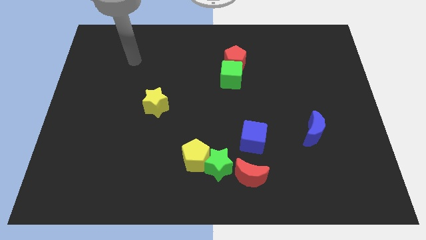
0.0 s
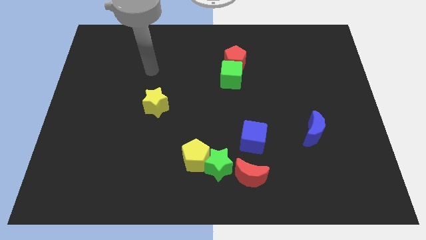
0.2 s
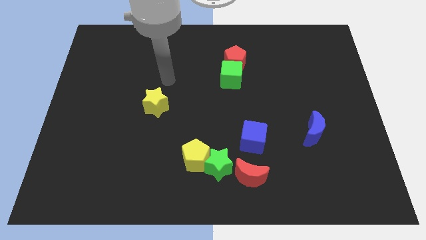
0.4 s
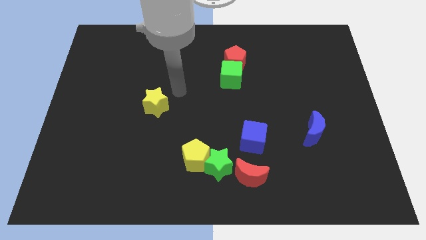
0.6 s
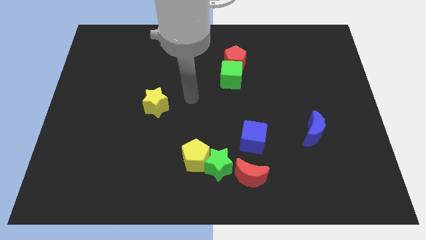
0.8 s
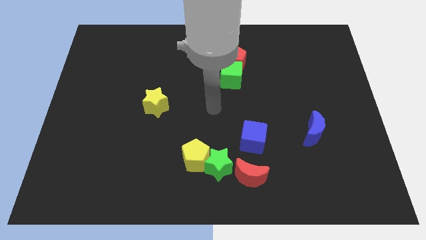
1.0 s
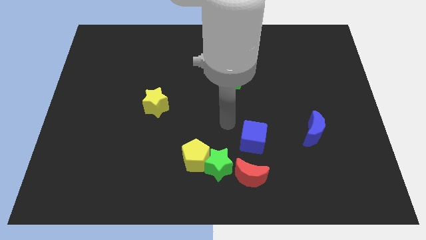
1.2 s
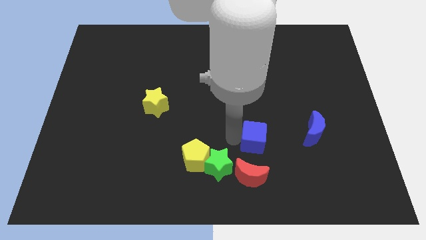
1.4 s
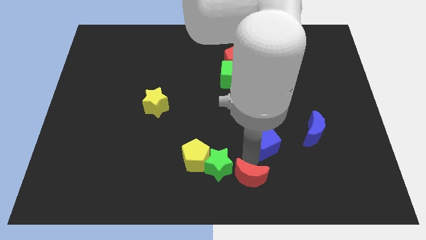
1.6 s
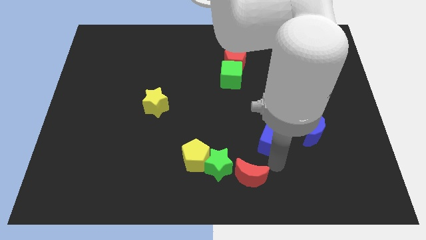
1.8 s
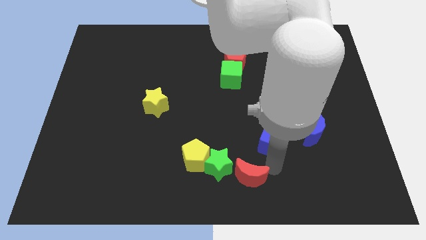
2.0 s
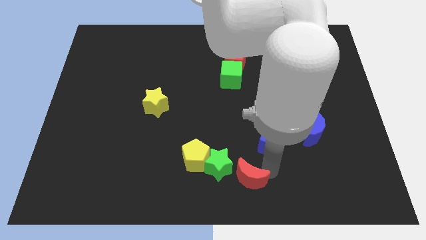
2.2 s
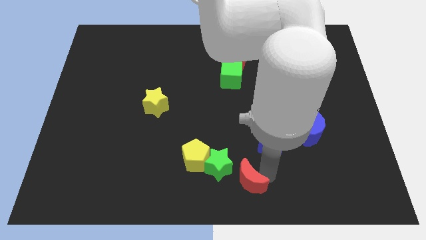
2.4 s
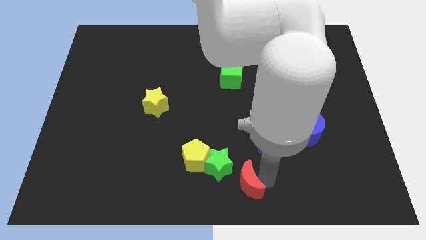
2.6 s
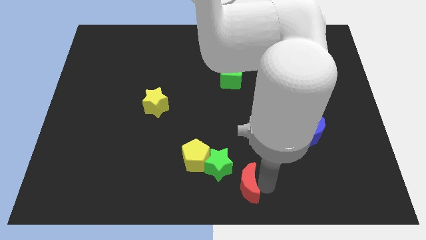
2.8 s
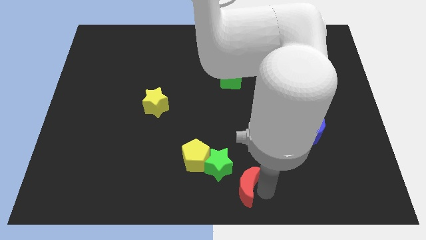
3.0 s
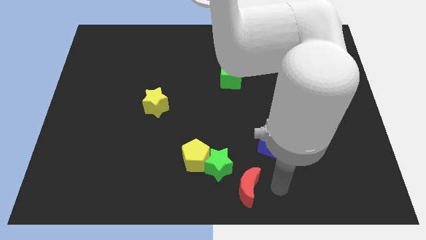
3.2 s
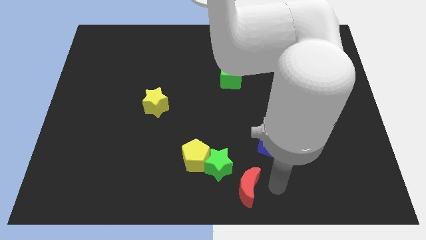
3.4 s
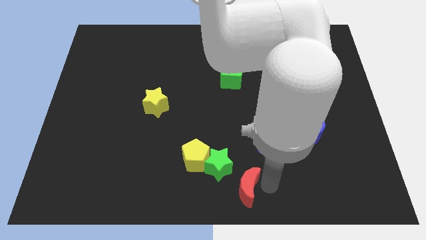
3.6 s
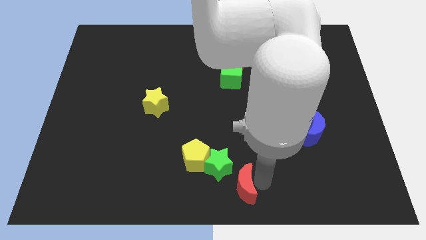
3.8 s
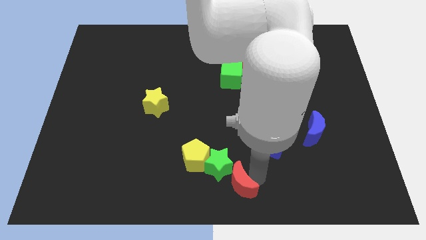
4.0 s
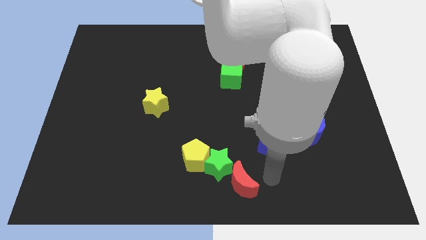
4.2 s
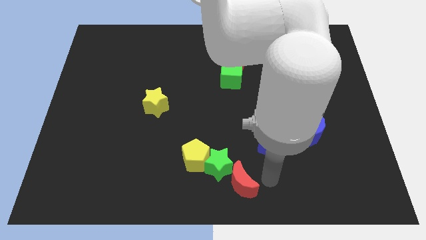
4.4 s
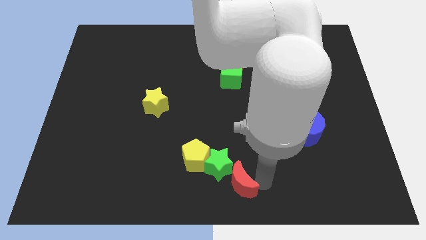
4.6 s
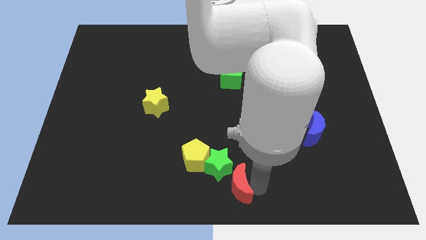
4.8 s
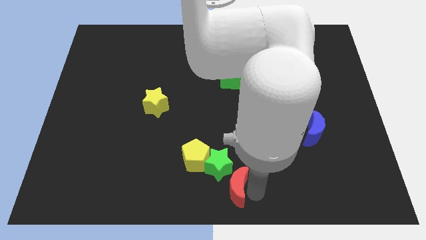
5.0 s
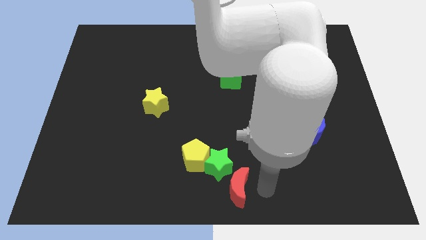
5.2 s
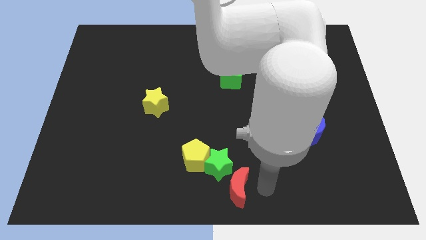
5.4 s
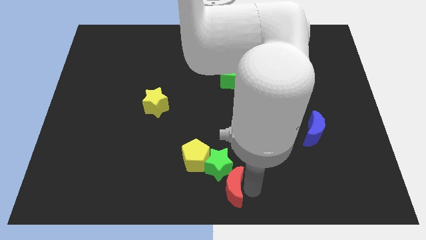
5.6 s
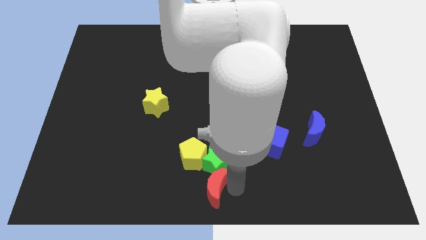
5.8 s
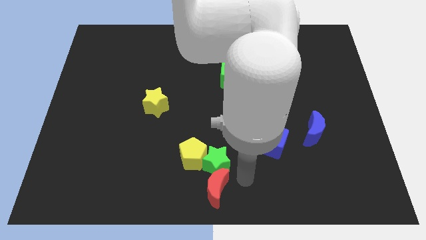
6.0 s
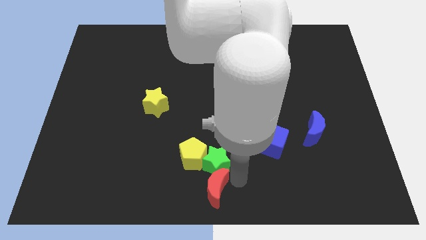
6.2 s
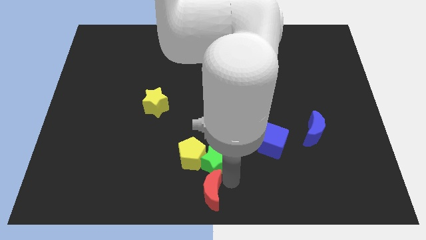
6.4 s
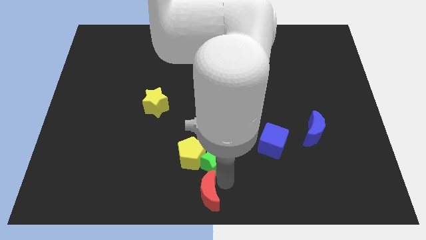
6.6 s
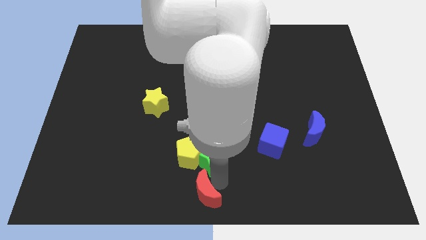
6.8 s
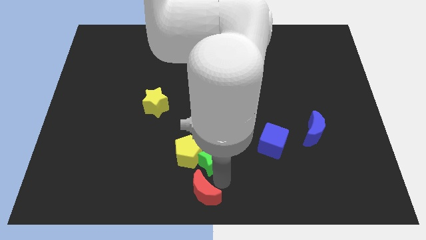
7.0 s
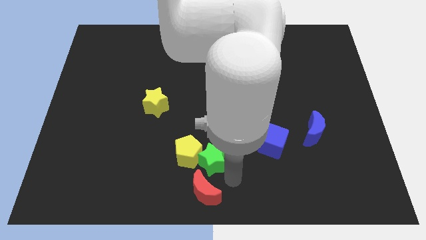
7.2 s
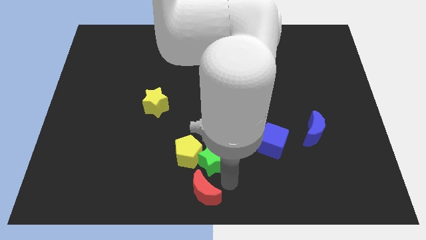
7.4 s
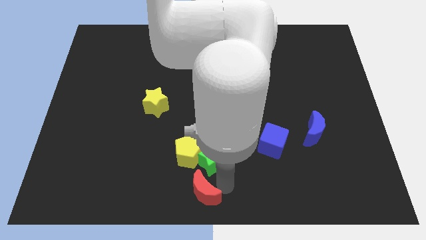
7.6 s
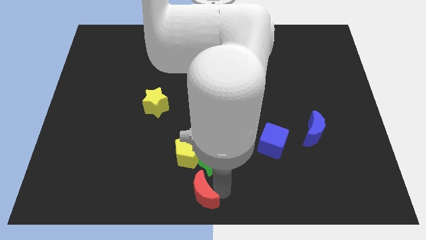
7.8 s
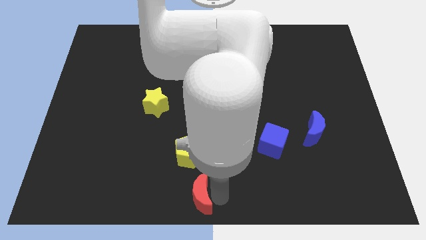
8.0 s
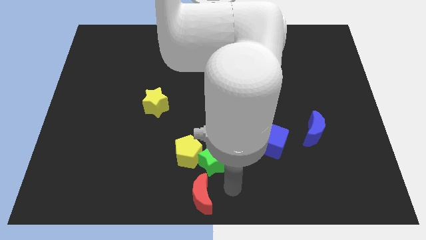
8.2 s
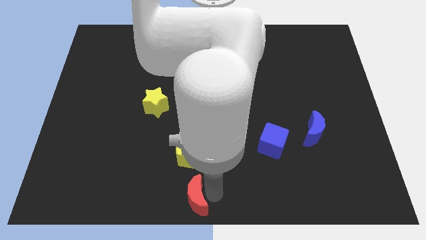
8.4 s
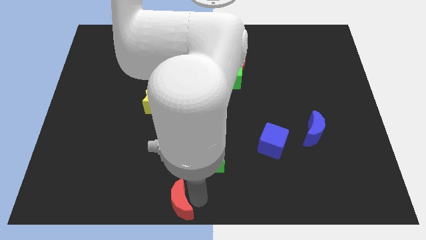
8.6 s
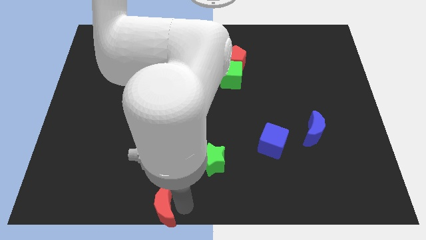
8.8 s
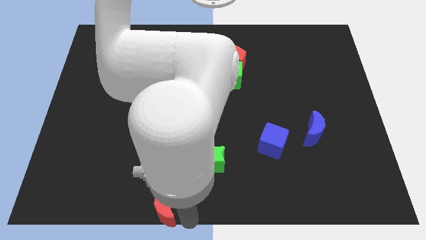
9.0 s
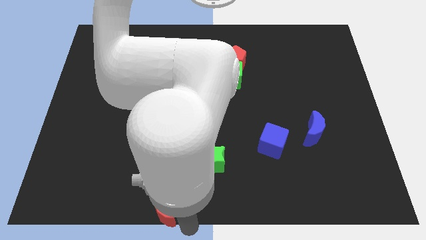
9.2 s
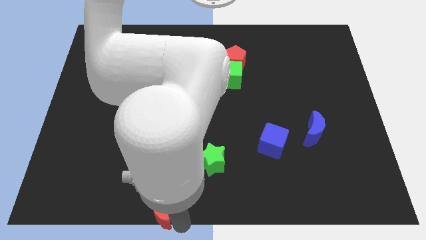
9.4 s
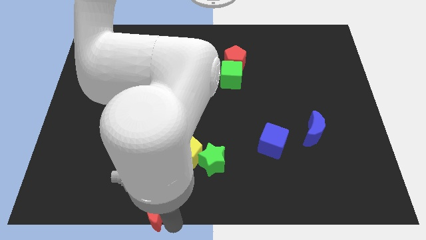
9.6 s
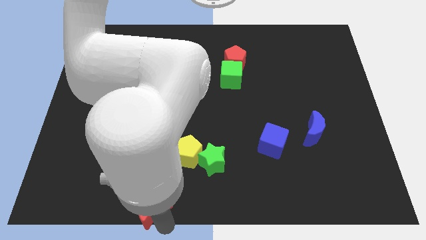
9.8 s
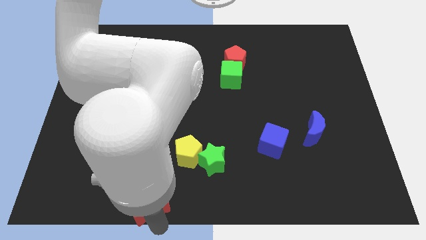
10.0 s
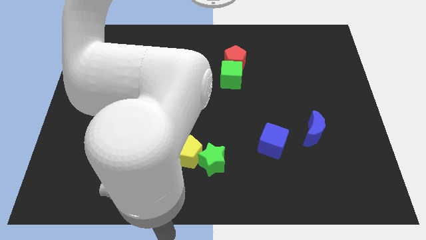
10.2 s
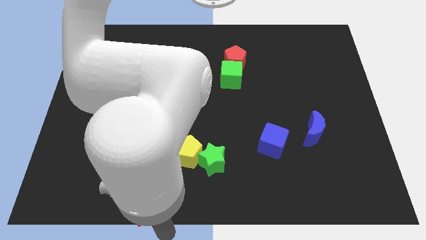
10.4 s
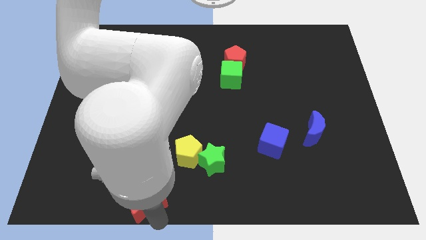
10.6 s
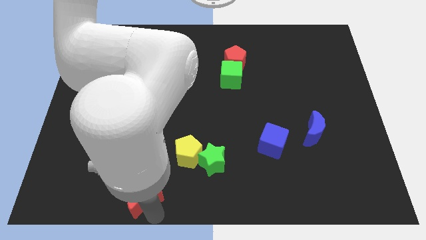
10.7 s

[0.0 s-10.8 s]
move the red moon to the left

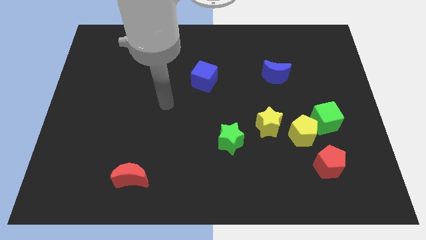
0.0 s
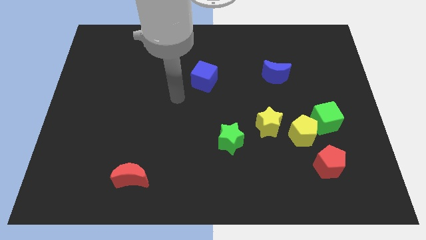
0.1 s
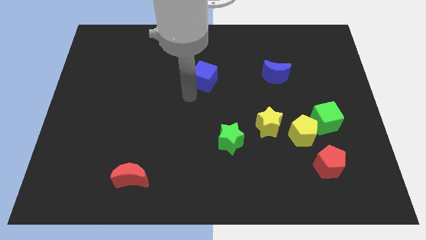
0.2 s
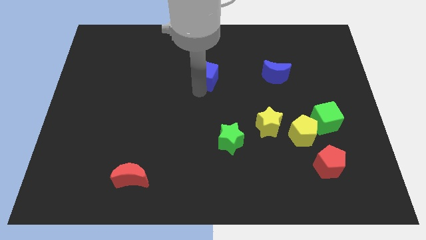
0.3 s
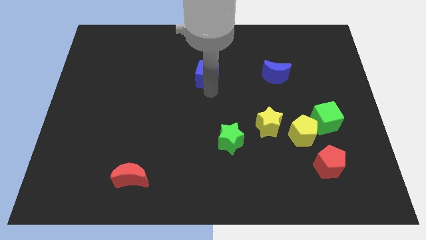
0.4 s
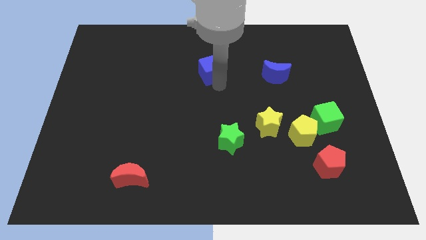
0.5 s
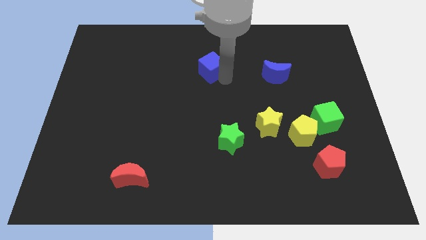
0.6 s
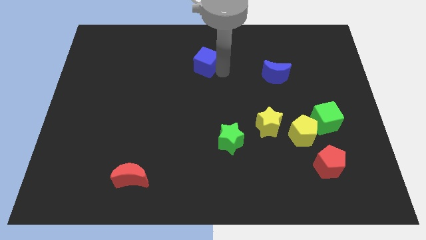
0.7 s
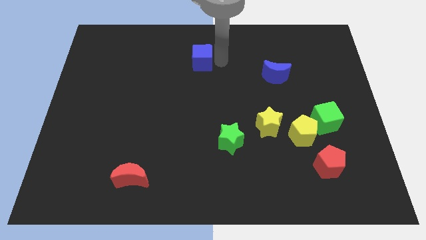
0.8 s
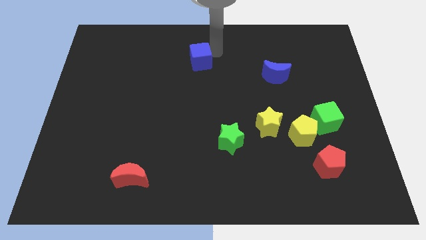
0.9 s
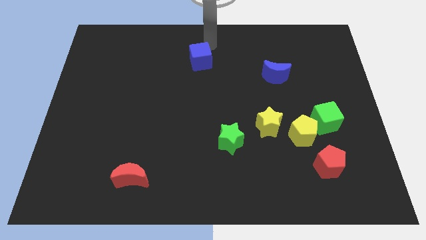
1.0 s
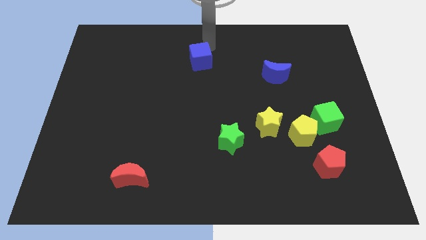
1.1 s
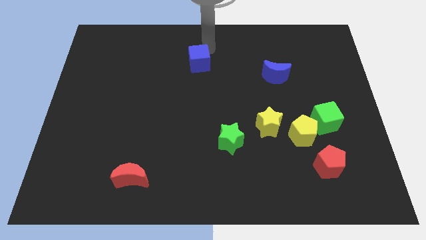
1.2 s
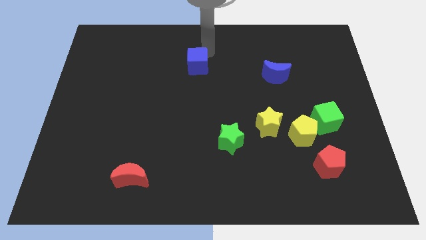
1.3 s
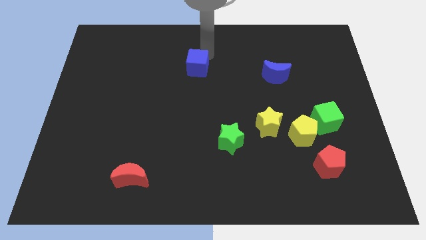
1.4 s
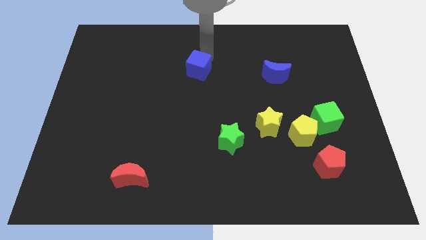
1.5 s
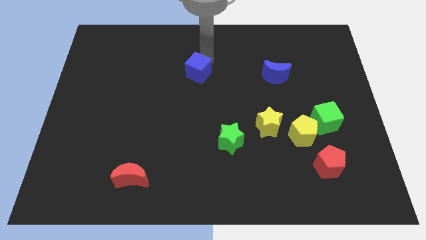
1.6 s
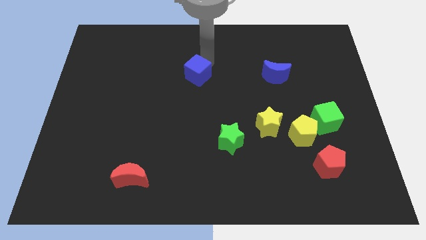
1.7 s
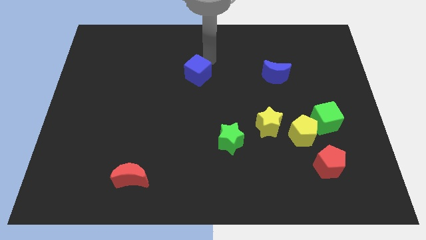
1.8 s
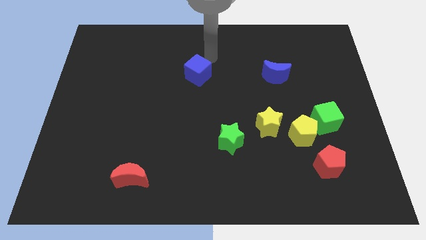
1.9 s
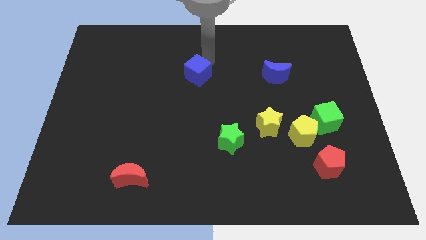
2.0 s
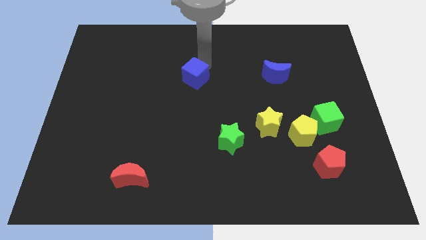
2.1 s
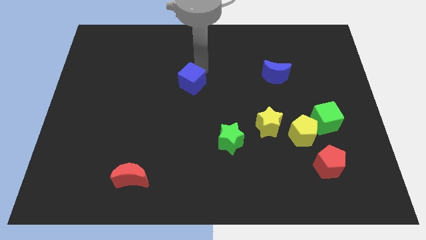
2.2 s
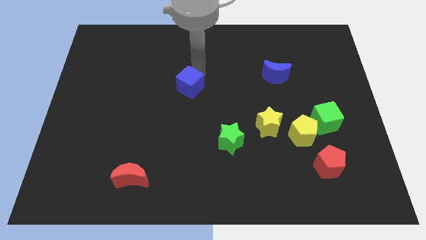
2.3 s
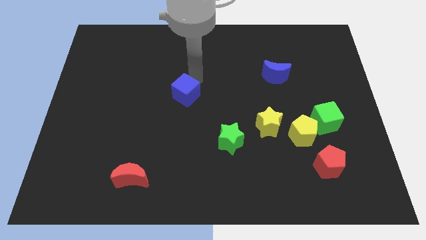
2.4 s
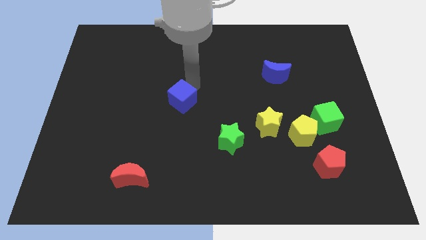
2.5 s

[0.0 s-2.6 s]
move the blue cube a bit diagonally down and left
